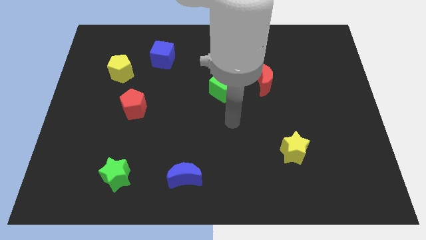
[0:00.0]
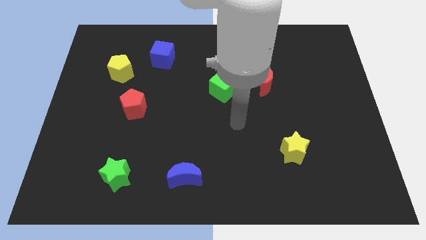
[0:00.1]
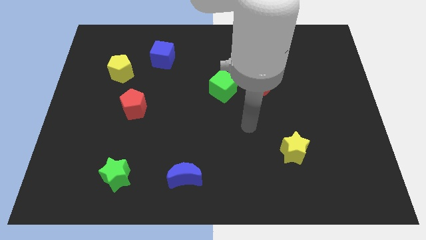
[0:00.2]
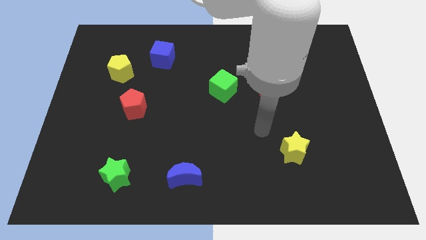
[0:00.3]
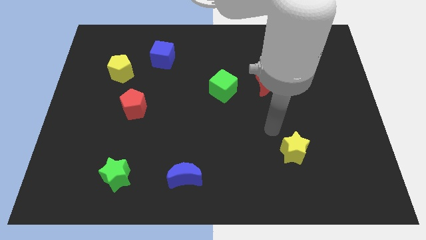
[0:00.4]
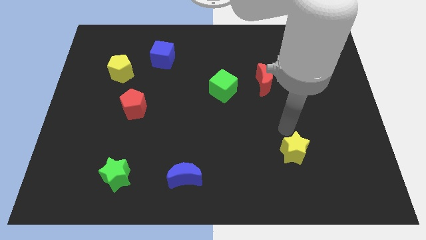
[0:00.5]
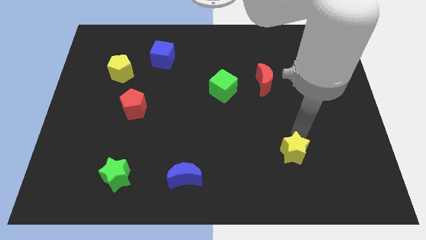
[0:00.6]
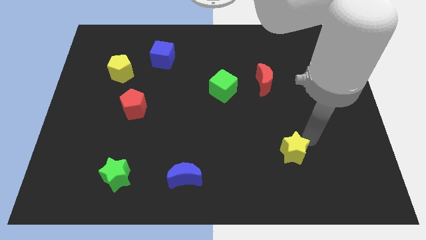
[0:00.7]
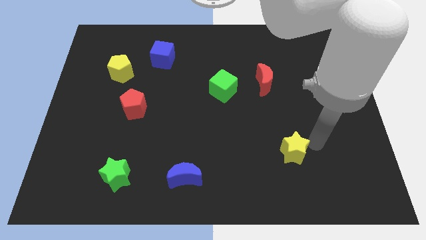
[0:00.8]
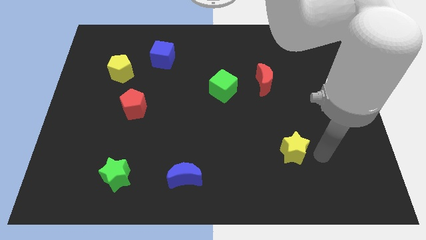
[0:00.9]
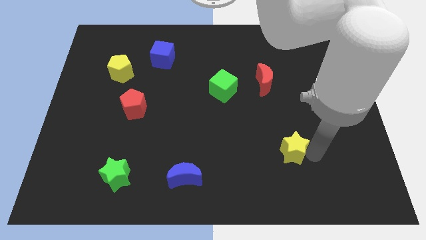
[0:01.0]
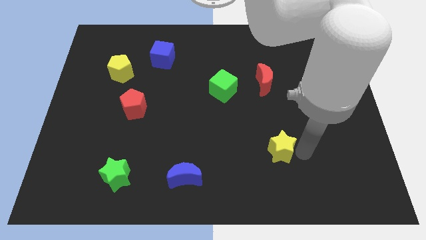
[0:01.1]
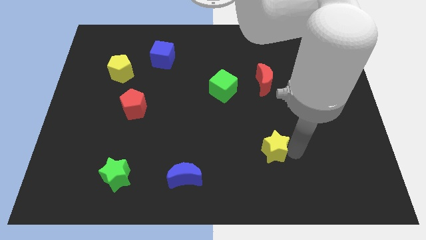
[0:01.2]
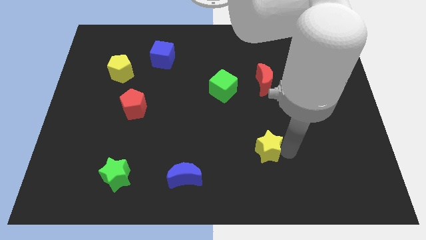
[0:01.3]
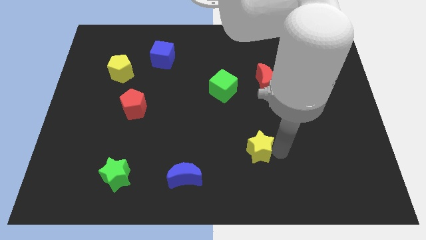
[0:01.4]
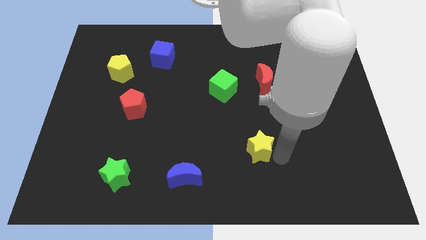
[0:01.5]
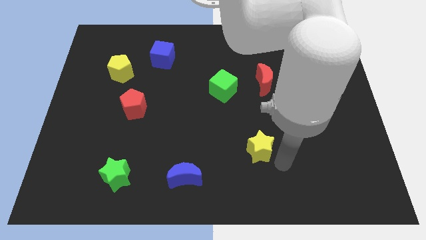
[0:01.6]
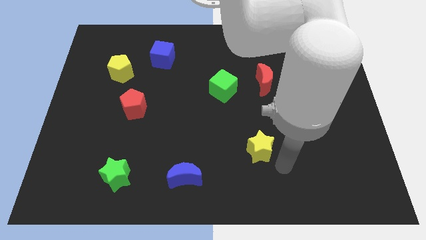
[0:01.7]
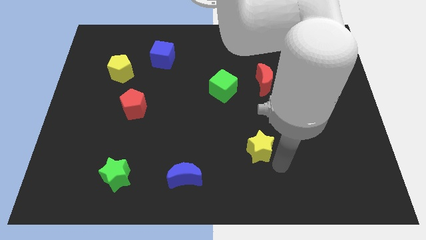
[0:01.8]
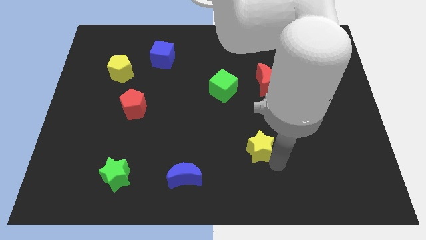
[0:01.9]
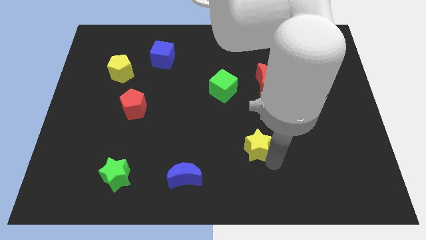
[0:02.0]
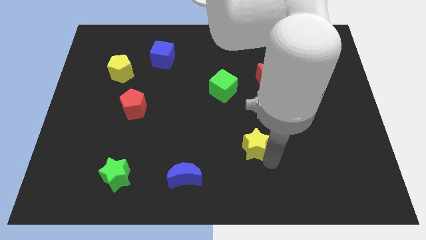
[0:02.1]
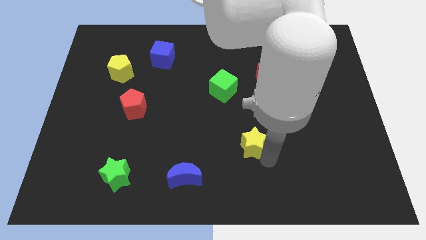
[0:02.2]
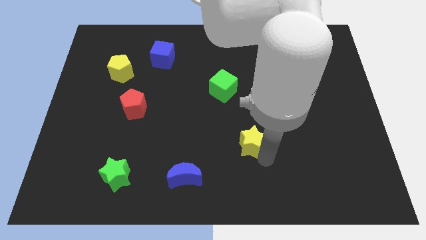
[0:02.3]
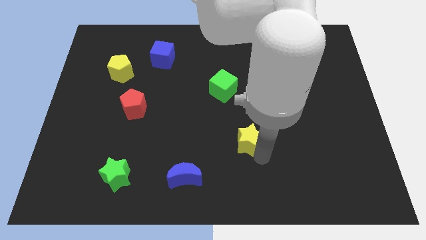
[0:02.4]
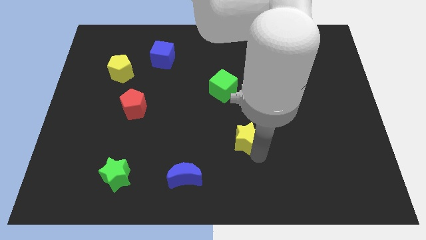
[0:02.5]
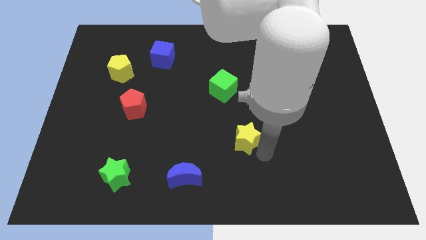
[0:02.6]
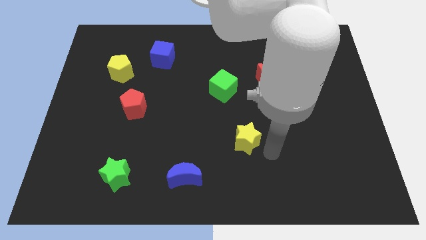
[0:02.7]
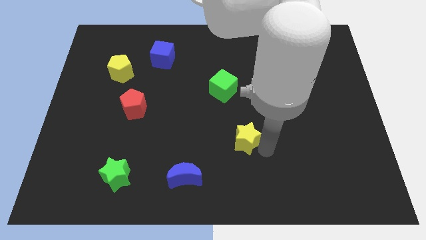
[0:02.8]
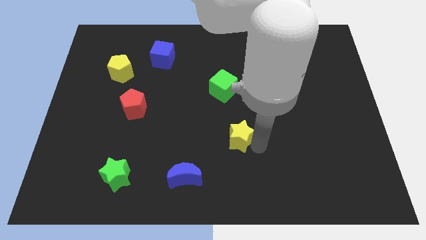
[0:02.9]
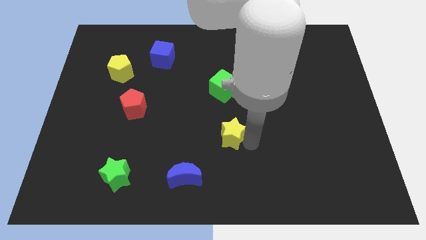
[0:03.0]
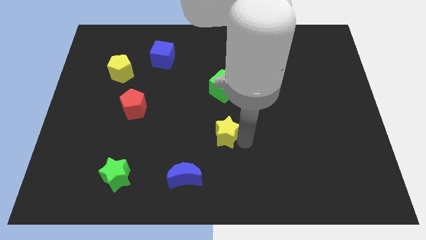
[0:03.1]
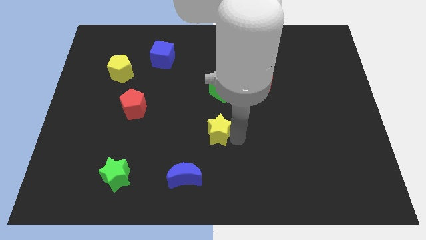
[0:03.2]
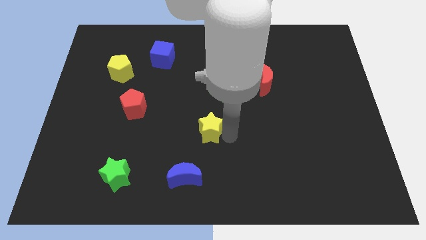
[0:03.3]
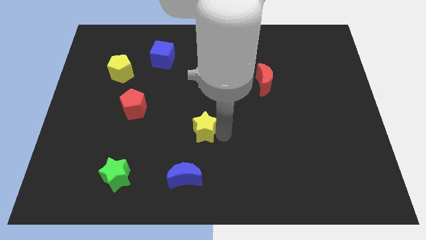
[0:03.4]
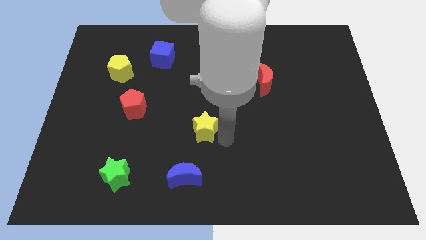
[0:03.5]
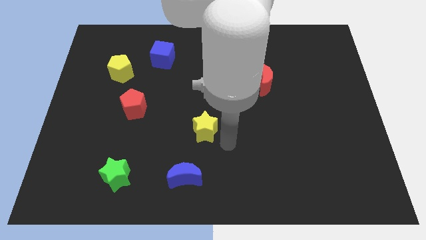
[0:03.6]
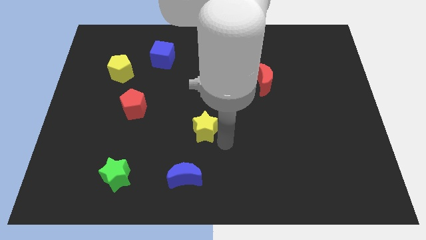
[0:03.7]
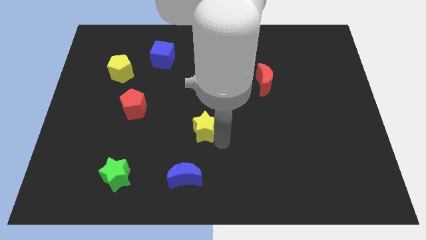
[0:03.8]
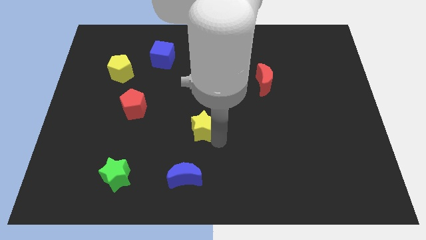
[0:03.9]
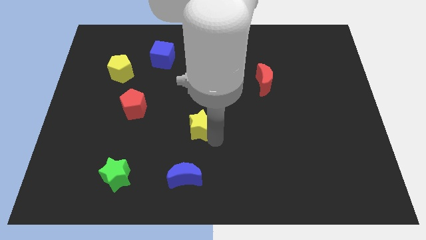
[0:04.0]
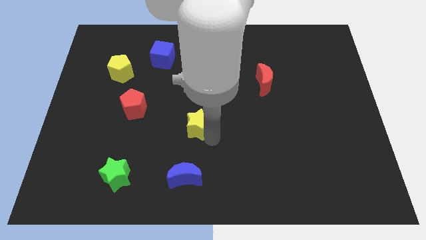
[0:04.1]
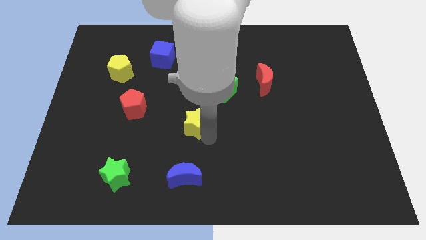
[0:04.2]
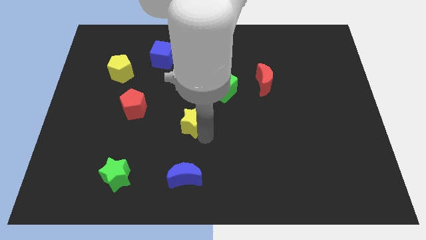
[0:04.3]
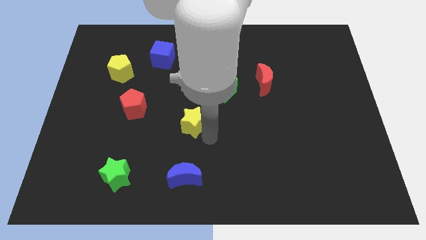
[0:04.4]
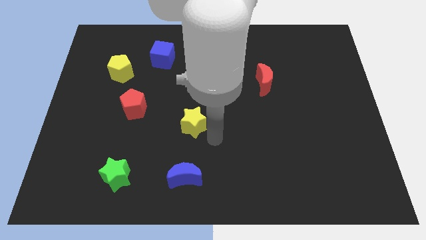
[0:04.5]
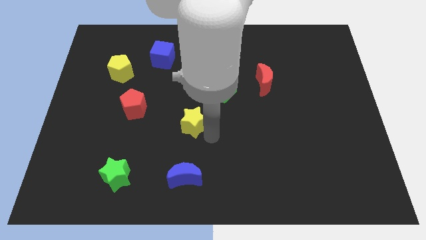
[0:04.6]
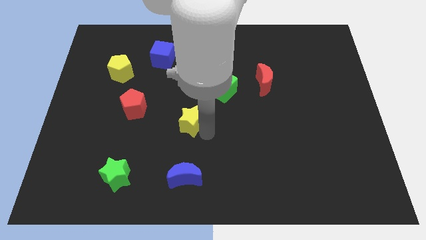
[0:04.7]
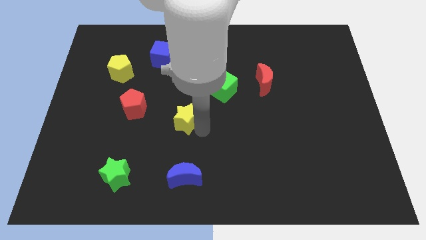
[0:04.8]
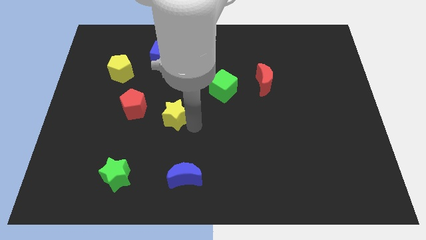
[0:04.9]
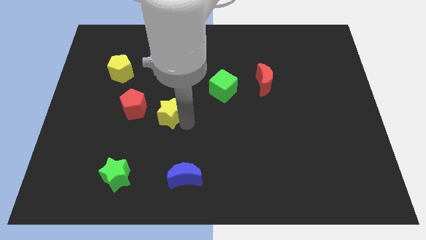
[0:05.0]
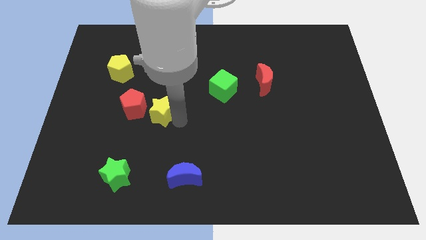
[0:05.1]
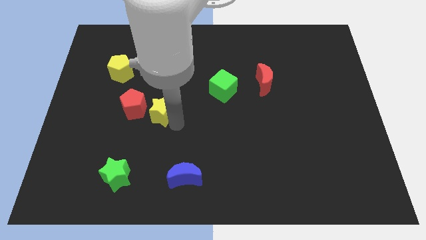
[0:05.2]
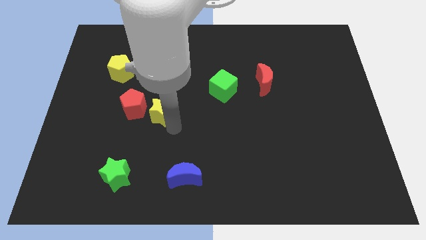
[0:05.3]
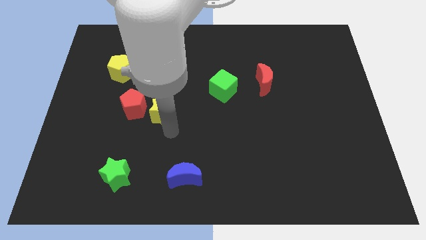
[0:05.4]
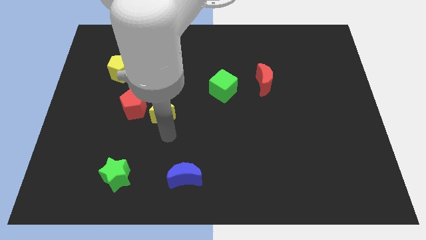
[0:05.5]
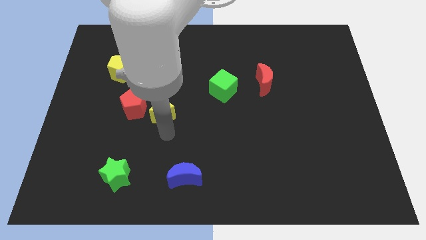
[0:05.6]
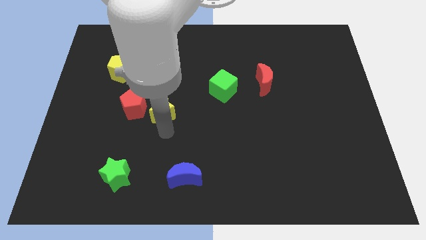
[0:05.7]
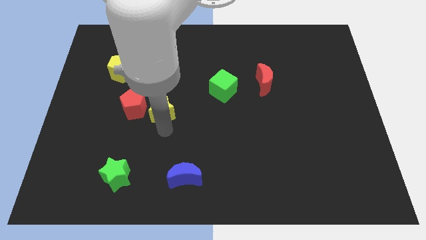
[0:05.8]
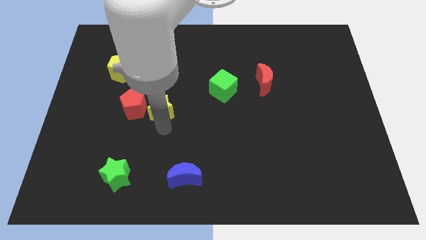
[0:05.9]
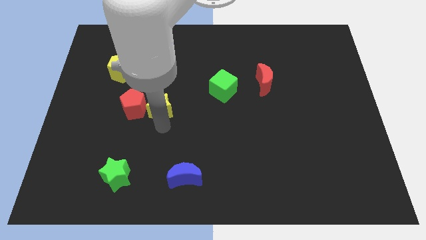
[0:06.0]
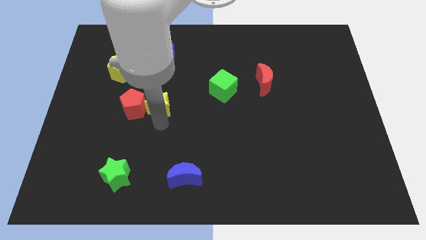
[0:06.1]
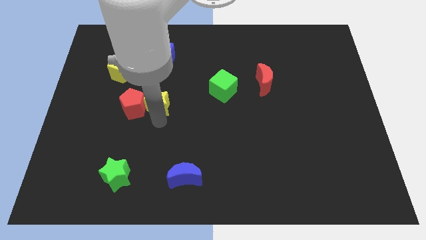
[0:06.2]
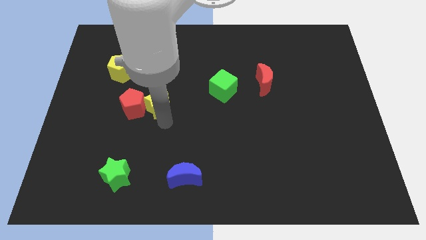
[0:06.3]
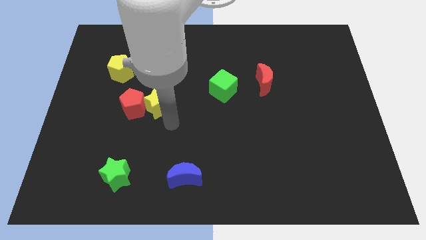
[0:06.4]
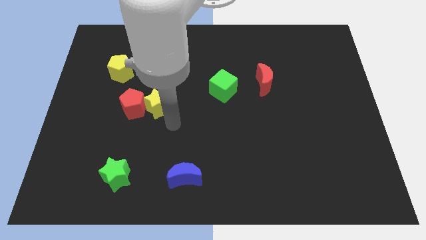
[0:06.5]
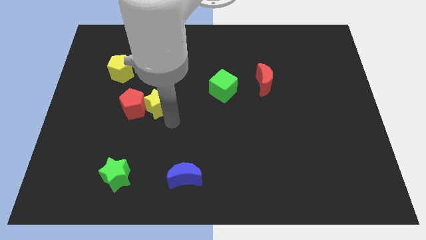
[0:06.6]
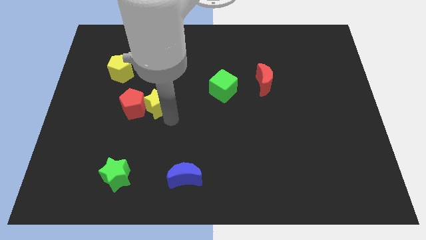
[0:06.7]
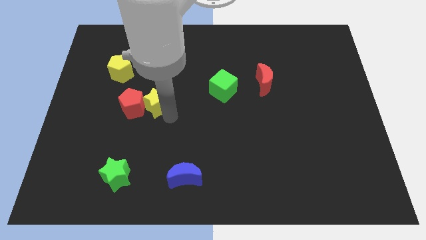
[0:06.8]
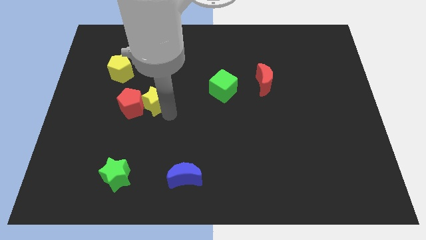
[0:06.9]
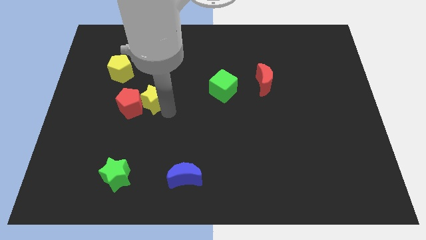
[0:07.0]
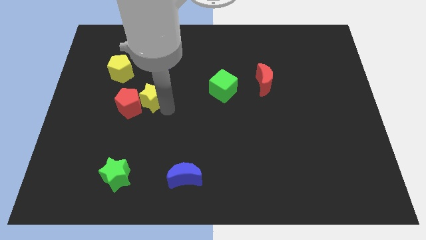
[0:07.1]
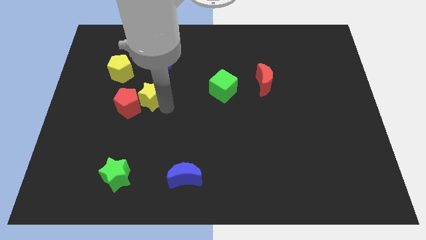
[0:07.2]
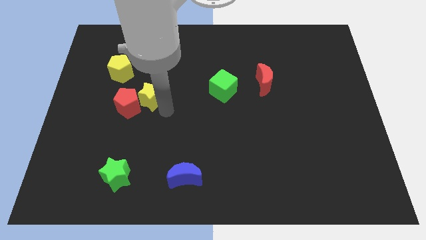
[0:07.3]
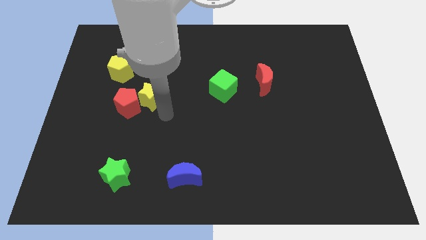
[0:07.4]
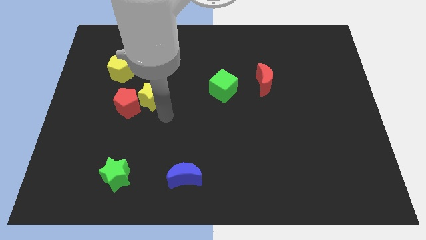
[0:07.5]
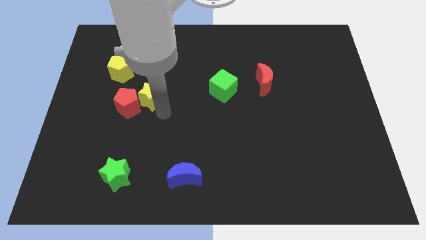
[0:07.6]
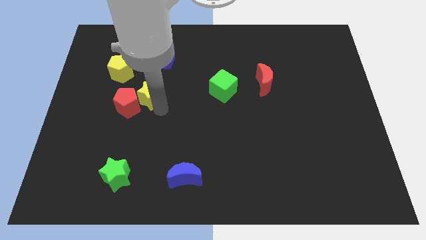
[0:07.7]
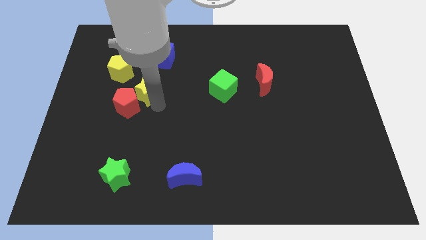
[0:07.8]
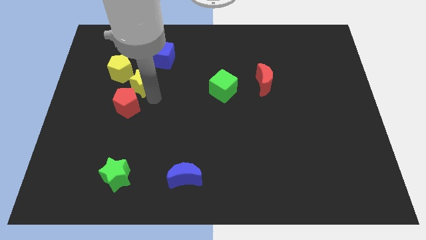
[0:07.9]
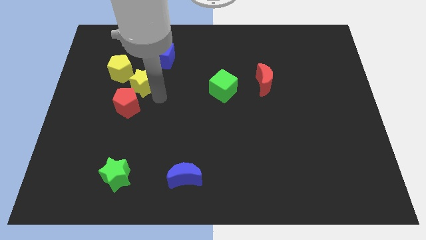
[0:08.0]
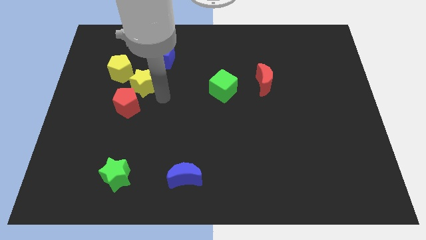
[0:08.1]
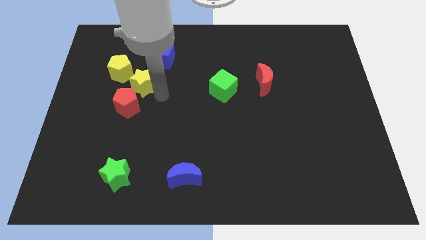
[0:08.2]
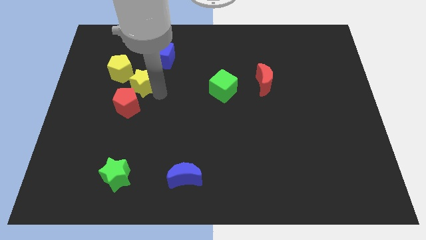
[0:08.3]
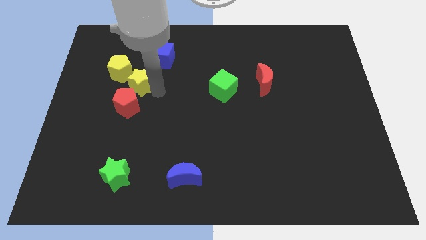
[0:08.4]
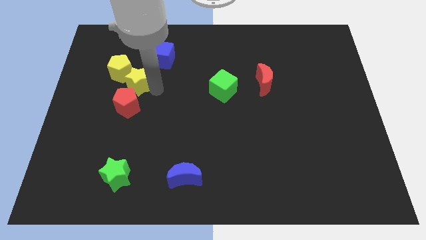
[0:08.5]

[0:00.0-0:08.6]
move the yellow star next to the yellow pentagon
